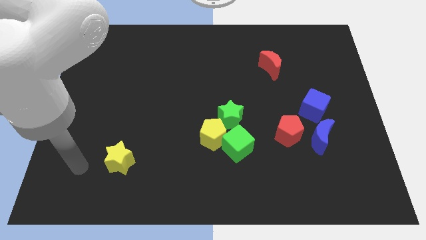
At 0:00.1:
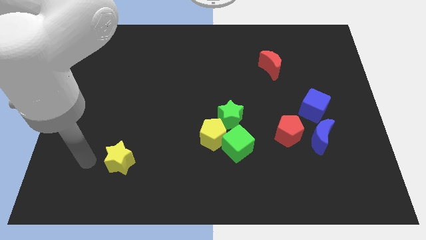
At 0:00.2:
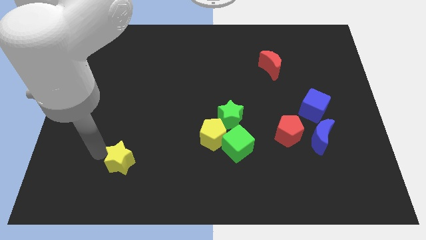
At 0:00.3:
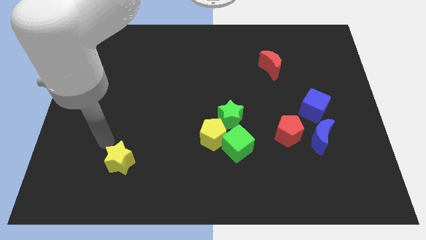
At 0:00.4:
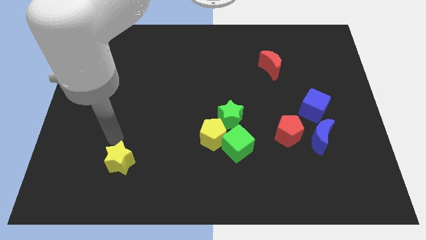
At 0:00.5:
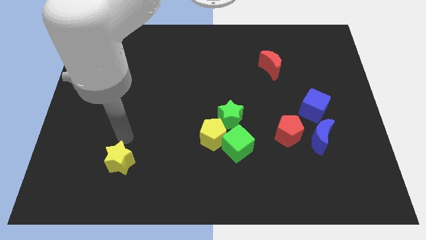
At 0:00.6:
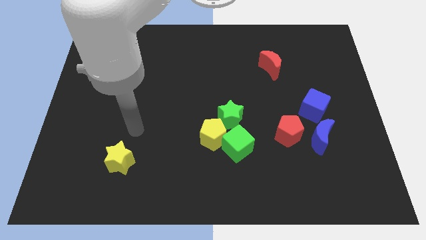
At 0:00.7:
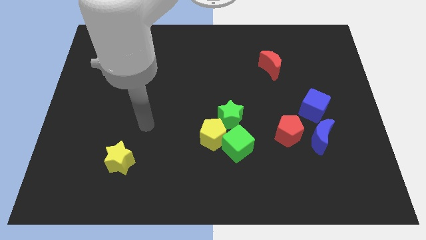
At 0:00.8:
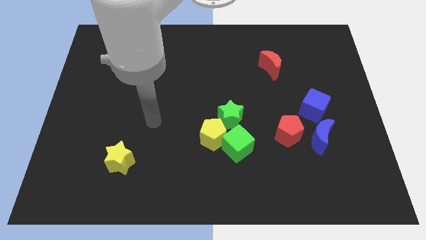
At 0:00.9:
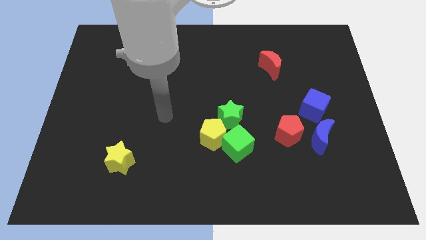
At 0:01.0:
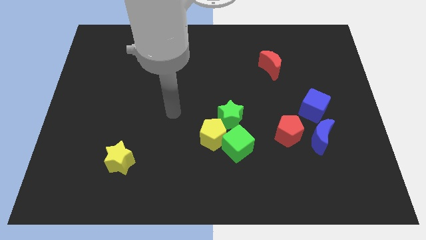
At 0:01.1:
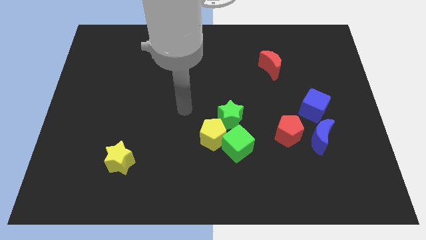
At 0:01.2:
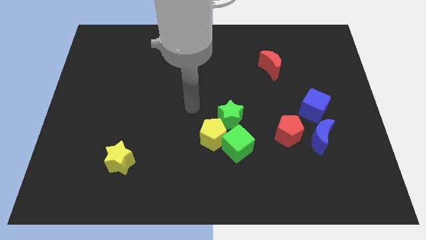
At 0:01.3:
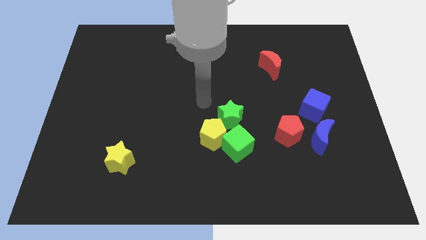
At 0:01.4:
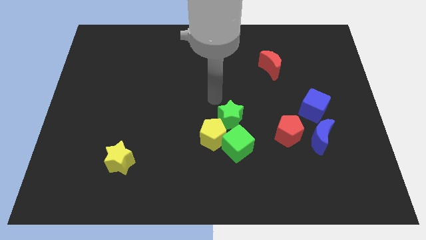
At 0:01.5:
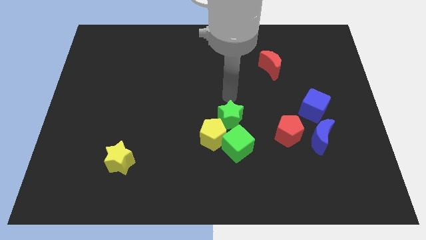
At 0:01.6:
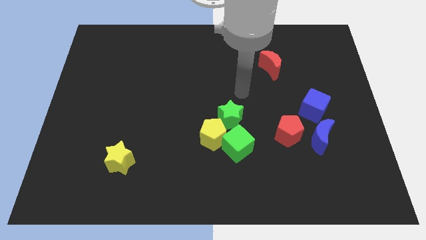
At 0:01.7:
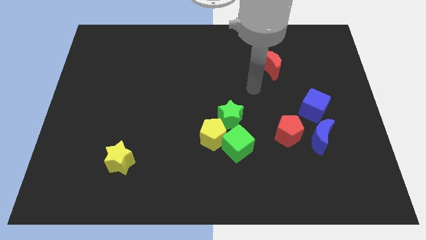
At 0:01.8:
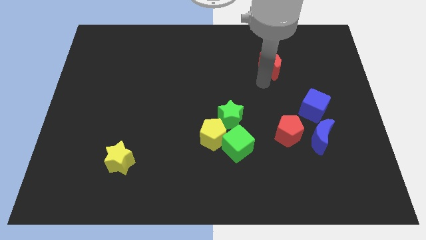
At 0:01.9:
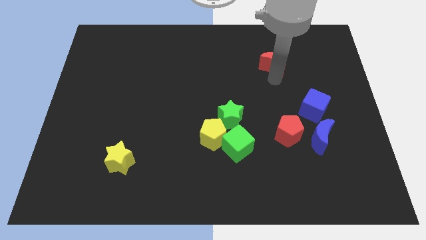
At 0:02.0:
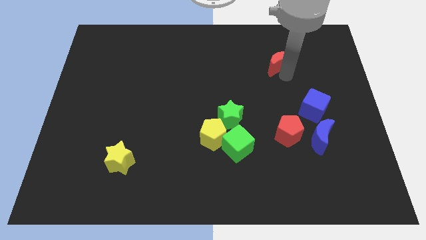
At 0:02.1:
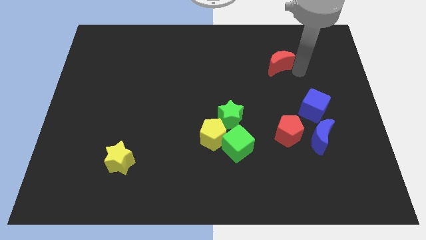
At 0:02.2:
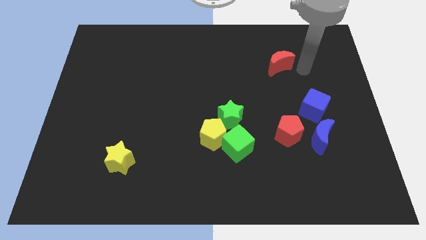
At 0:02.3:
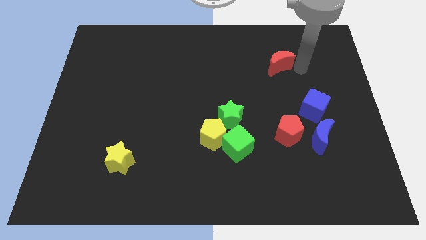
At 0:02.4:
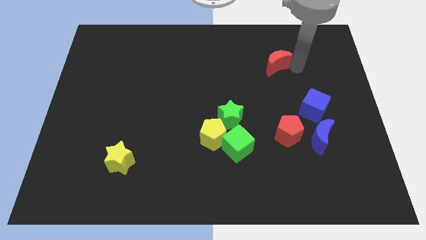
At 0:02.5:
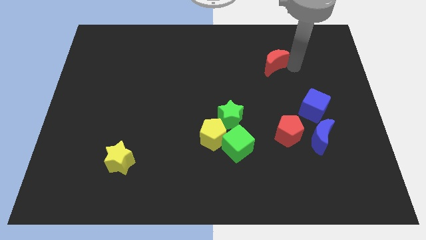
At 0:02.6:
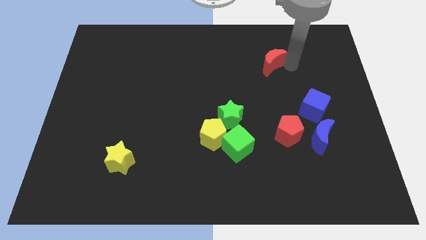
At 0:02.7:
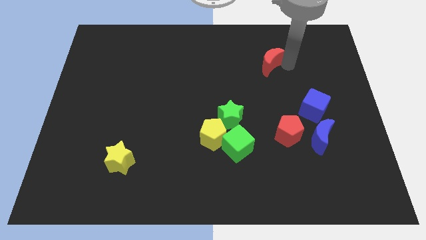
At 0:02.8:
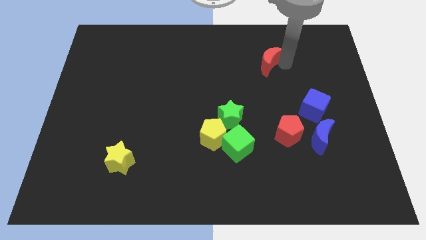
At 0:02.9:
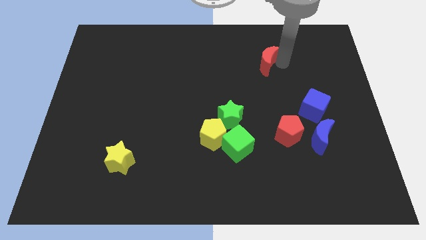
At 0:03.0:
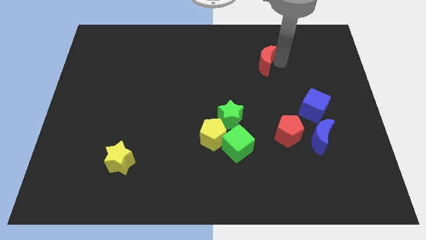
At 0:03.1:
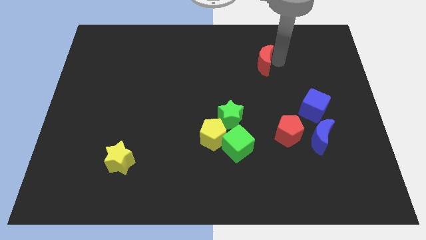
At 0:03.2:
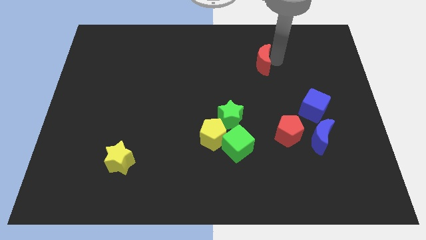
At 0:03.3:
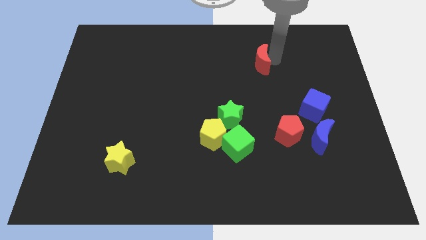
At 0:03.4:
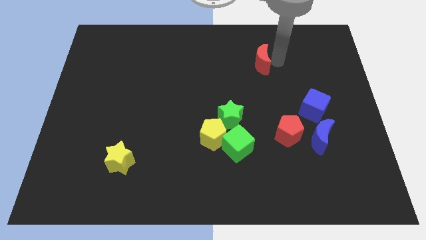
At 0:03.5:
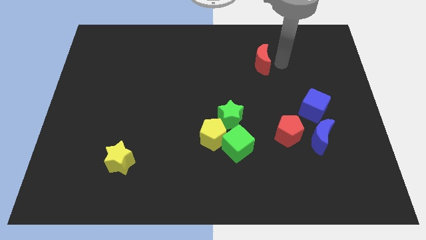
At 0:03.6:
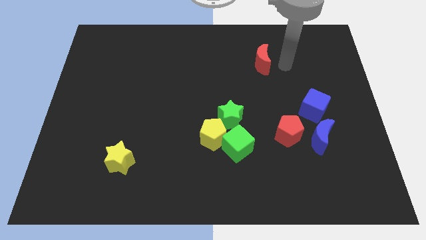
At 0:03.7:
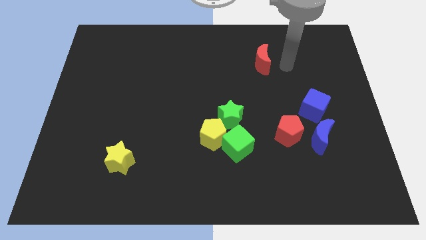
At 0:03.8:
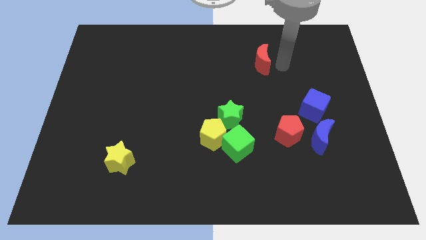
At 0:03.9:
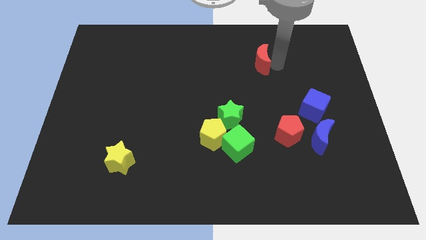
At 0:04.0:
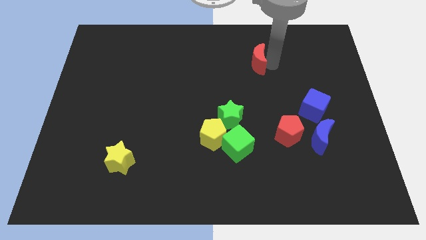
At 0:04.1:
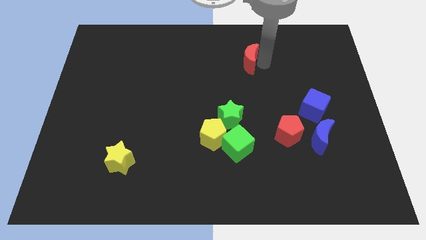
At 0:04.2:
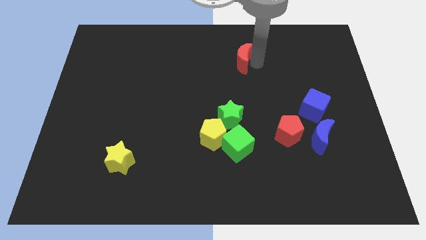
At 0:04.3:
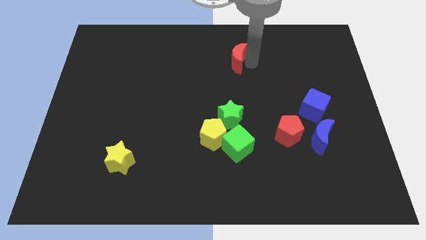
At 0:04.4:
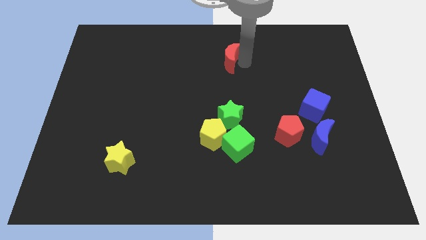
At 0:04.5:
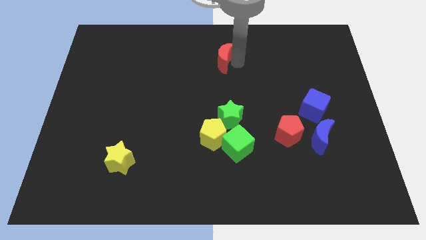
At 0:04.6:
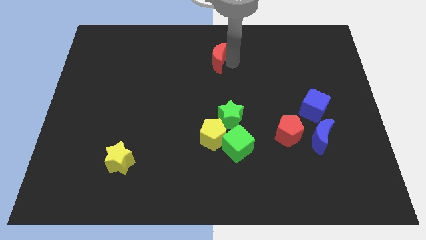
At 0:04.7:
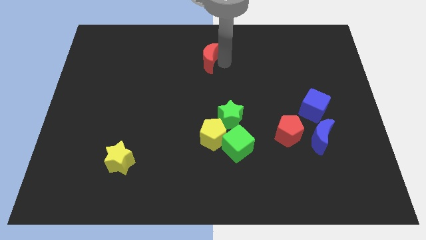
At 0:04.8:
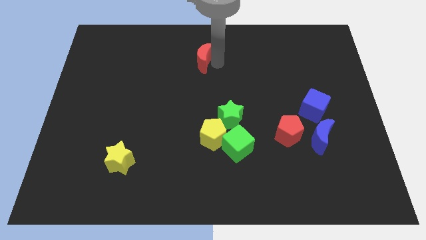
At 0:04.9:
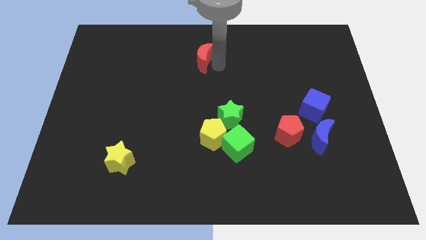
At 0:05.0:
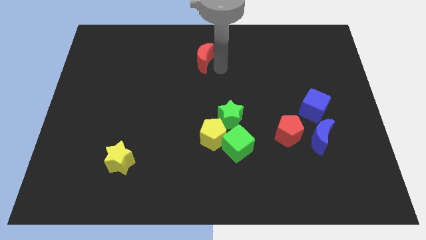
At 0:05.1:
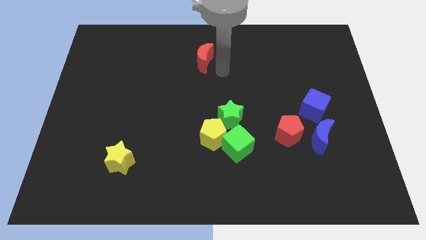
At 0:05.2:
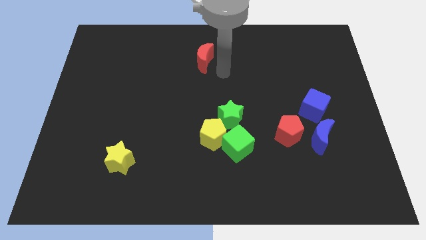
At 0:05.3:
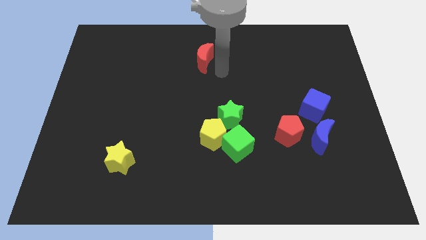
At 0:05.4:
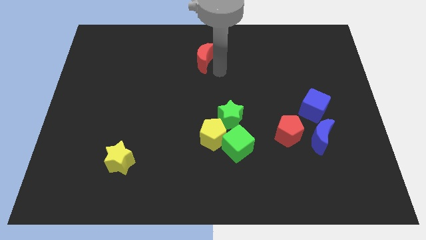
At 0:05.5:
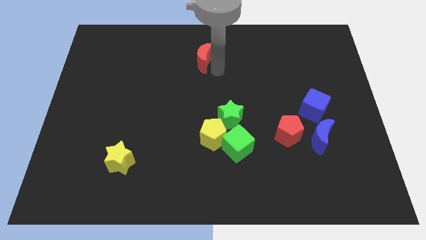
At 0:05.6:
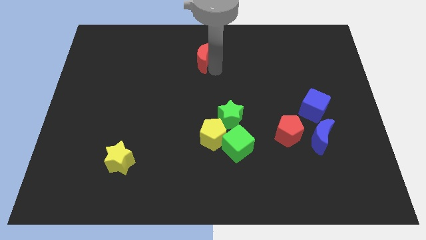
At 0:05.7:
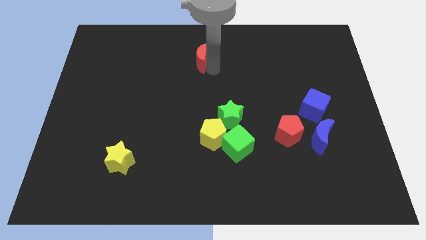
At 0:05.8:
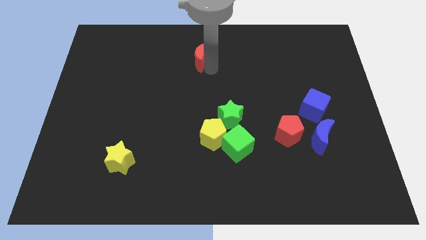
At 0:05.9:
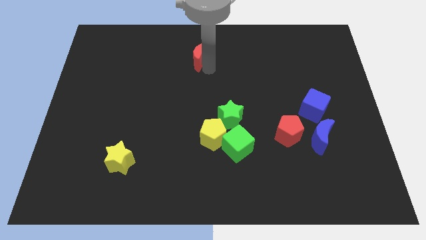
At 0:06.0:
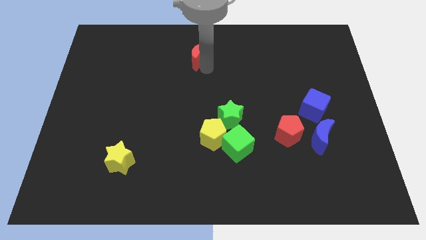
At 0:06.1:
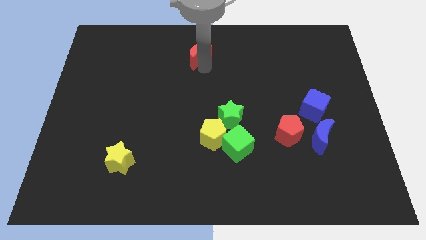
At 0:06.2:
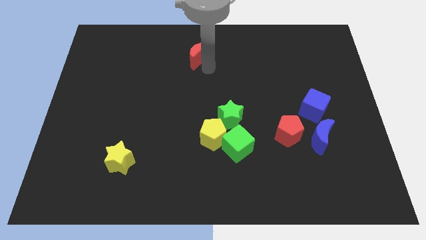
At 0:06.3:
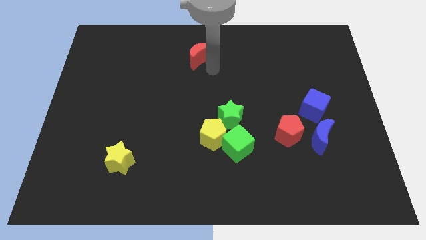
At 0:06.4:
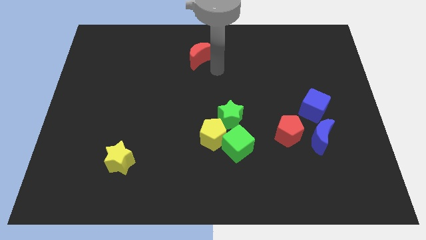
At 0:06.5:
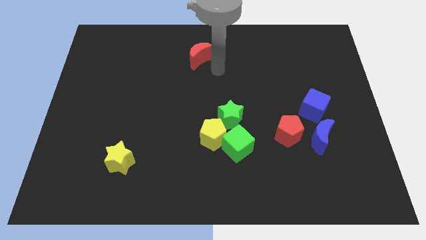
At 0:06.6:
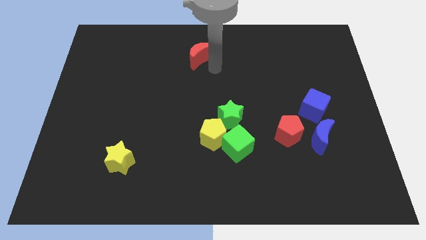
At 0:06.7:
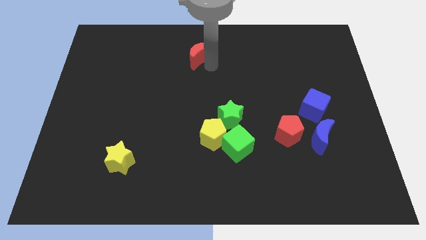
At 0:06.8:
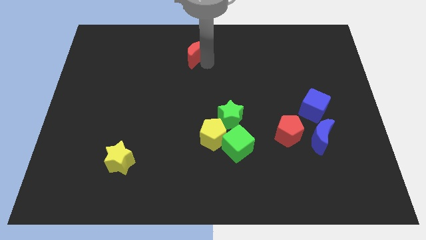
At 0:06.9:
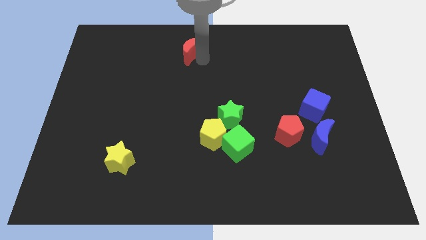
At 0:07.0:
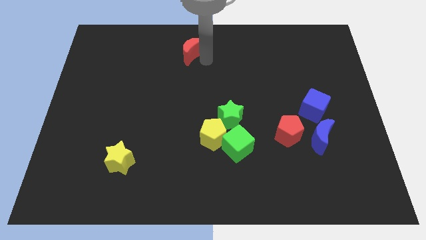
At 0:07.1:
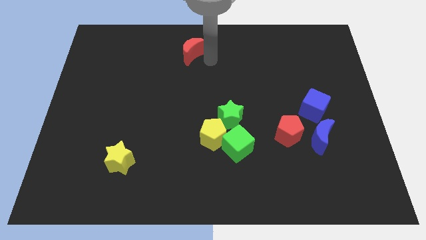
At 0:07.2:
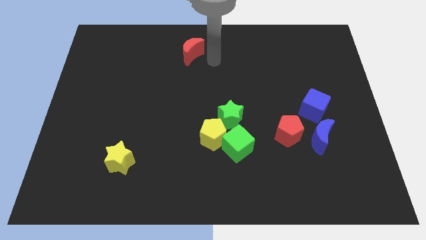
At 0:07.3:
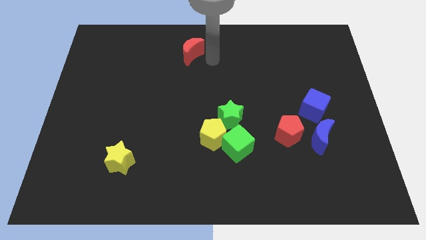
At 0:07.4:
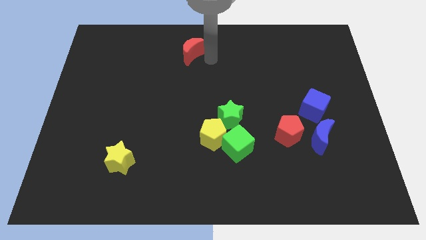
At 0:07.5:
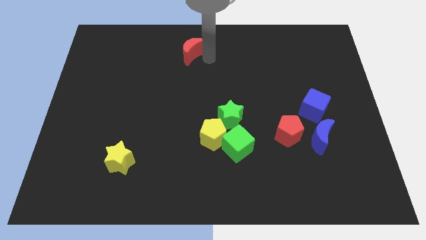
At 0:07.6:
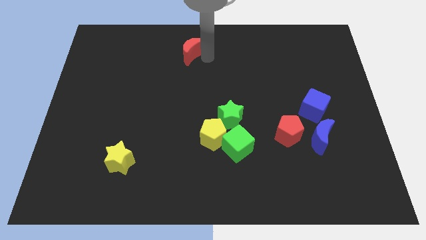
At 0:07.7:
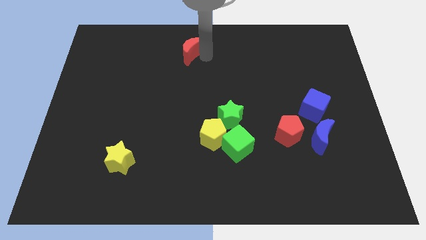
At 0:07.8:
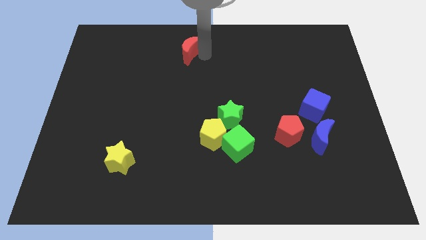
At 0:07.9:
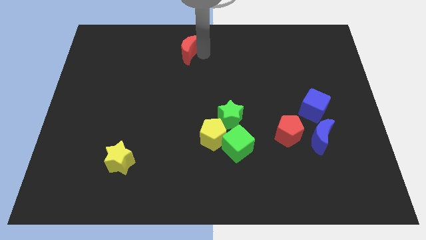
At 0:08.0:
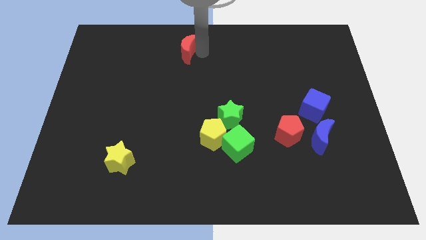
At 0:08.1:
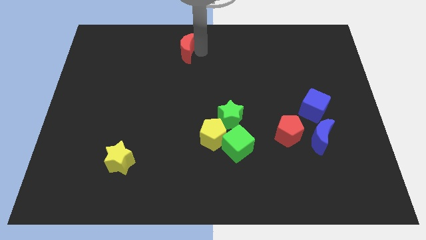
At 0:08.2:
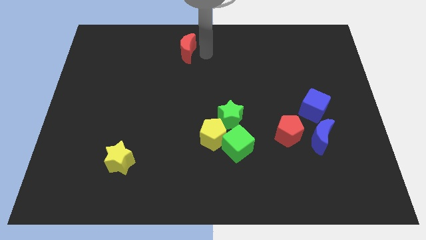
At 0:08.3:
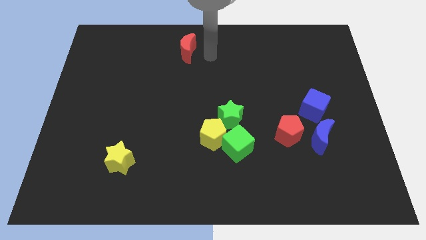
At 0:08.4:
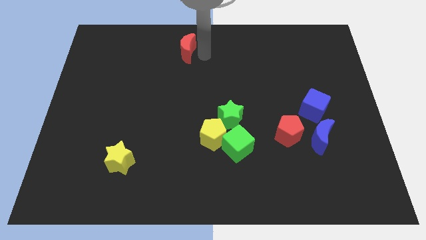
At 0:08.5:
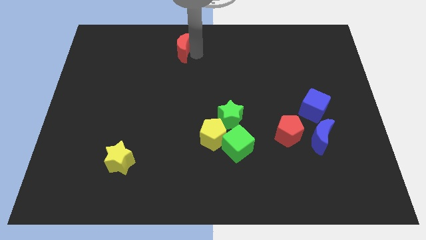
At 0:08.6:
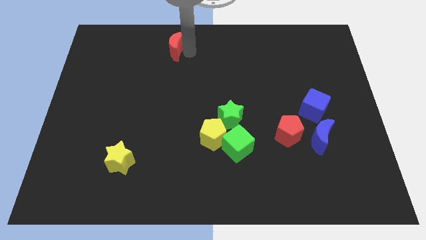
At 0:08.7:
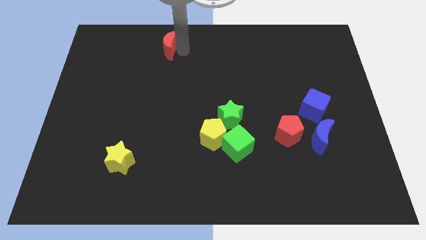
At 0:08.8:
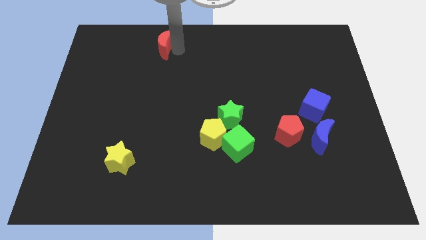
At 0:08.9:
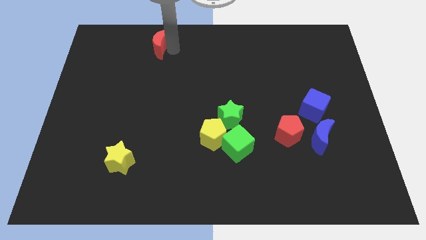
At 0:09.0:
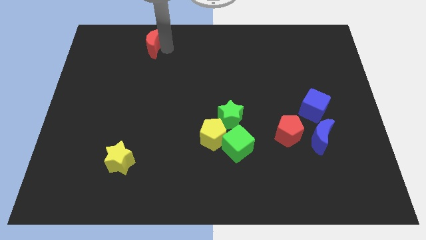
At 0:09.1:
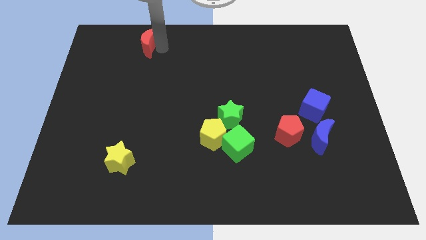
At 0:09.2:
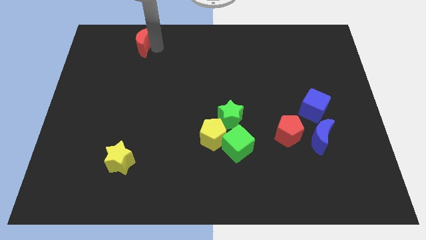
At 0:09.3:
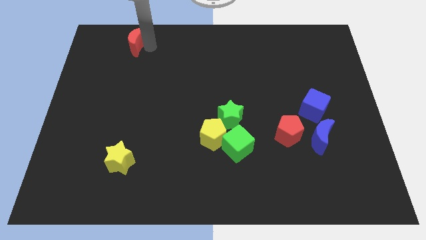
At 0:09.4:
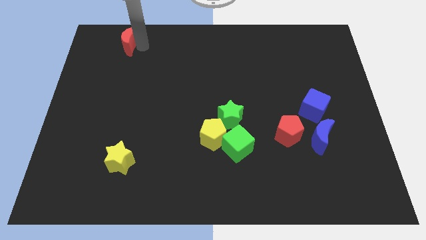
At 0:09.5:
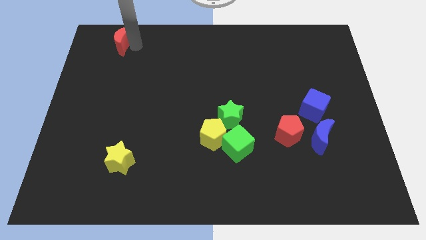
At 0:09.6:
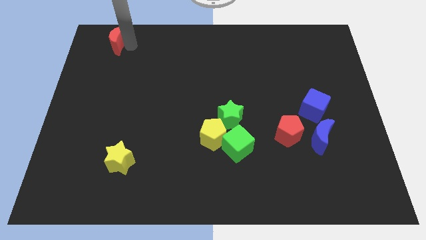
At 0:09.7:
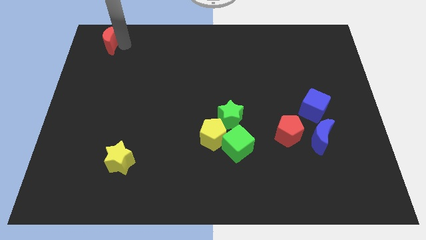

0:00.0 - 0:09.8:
slide the red moon to the top left corner
